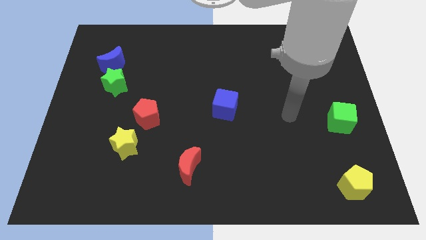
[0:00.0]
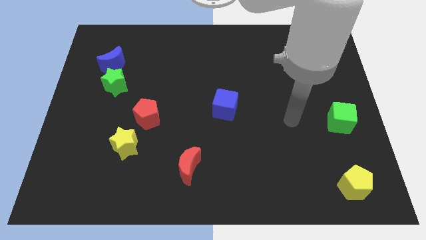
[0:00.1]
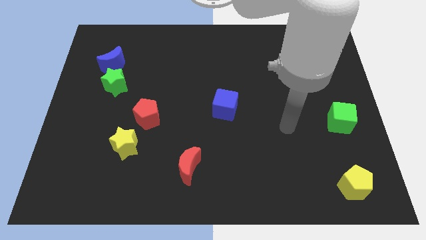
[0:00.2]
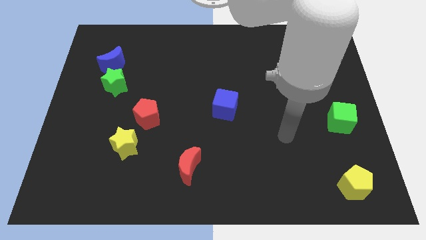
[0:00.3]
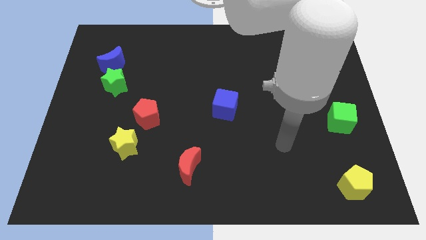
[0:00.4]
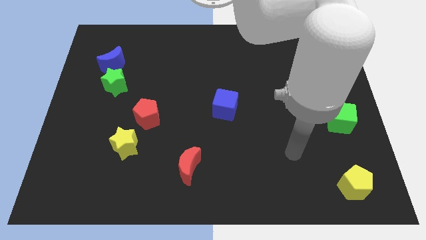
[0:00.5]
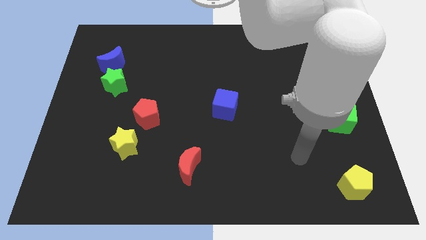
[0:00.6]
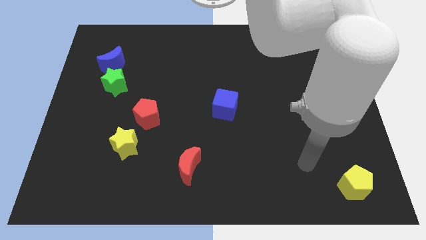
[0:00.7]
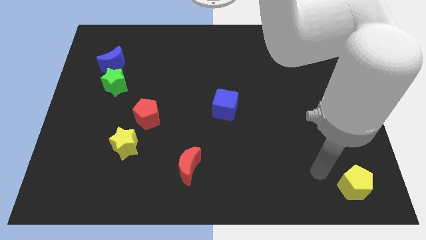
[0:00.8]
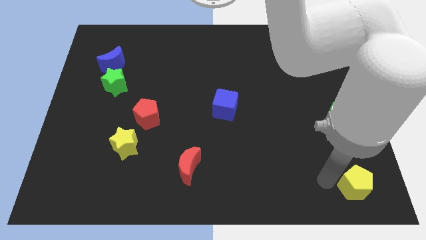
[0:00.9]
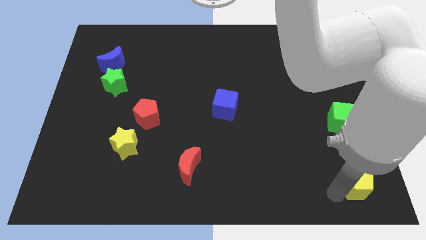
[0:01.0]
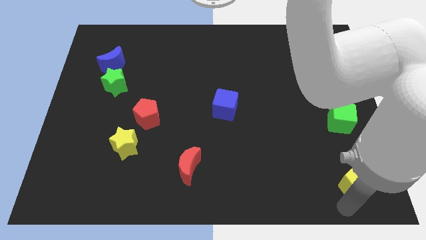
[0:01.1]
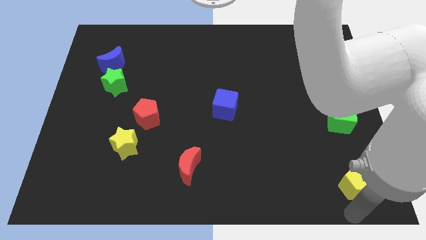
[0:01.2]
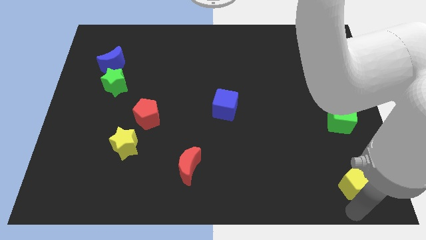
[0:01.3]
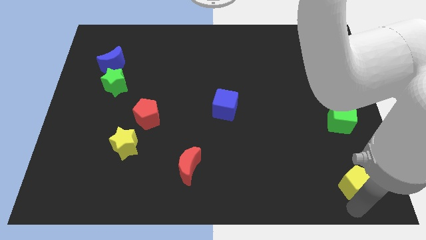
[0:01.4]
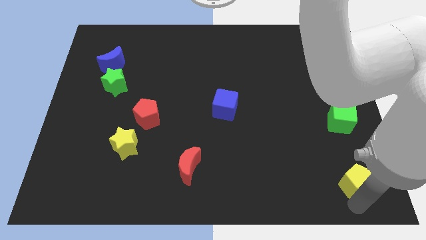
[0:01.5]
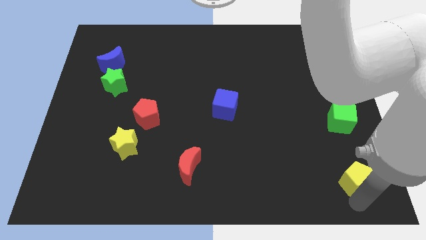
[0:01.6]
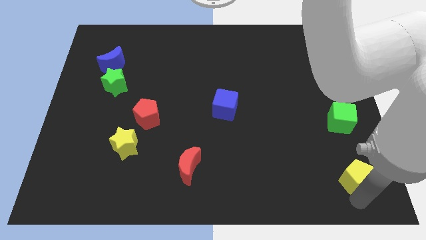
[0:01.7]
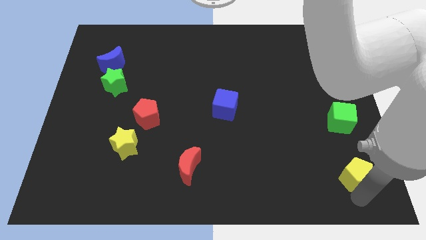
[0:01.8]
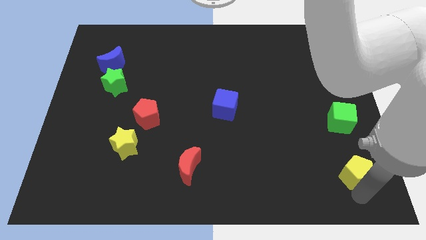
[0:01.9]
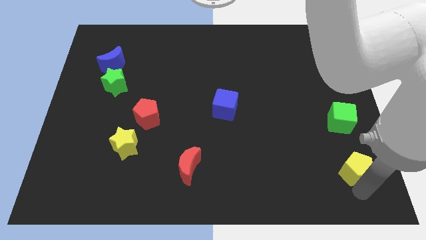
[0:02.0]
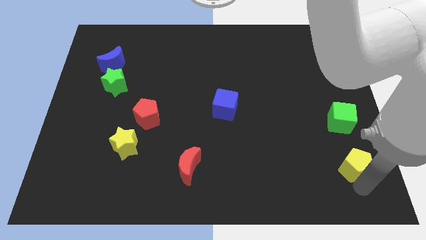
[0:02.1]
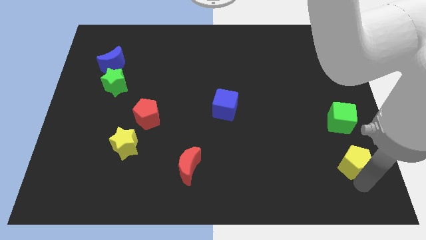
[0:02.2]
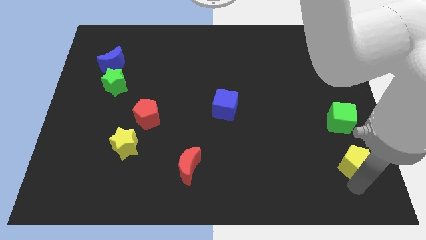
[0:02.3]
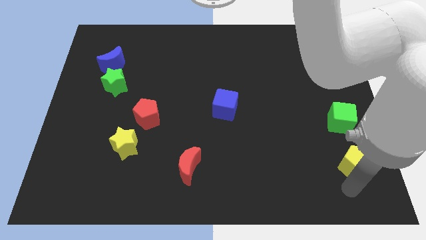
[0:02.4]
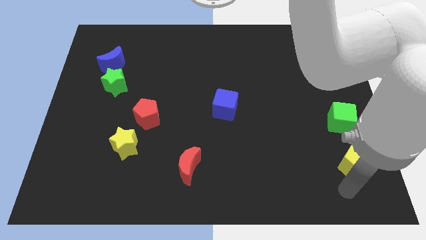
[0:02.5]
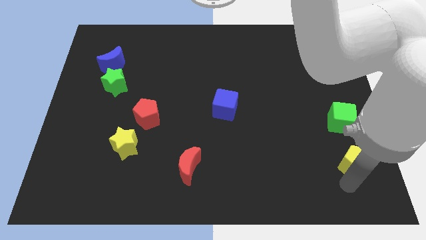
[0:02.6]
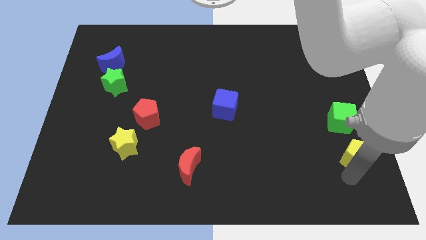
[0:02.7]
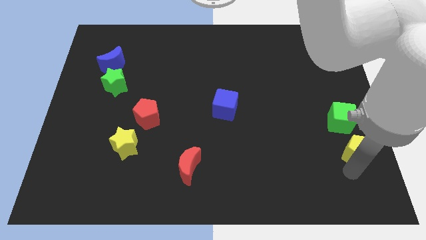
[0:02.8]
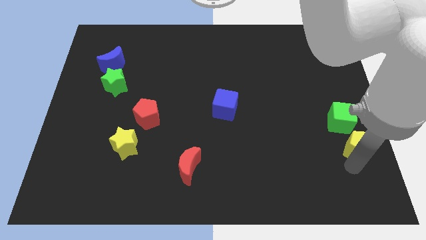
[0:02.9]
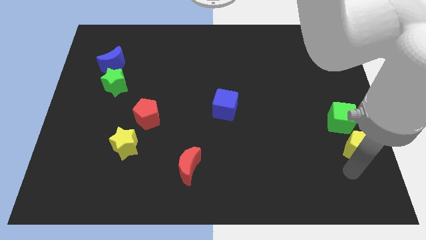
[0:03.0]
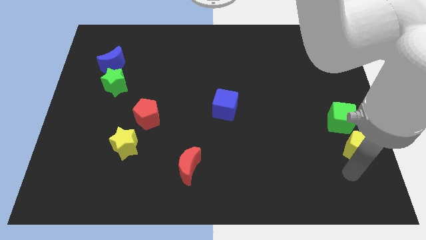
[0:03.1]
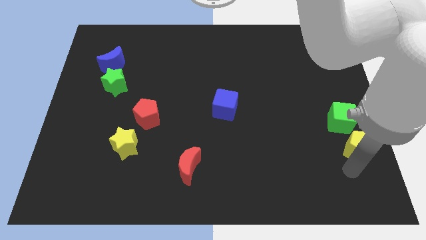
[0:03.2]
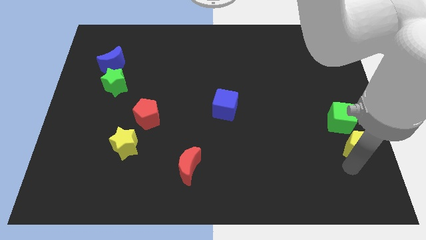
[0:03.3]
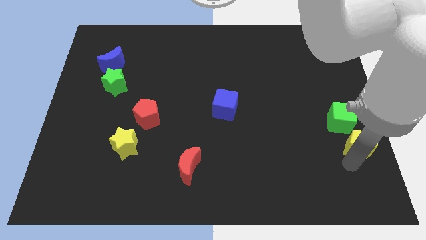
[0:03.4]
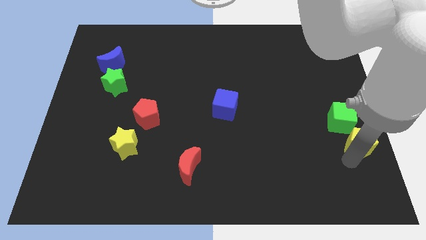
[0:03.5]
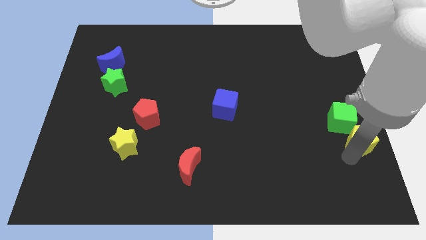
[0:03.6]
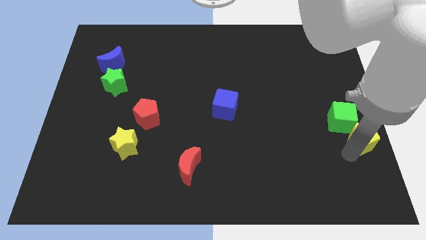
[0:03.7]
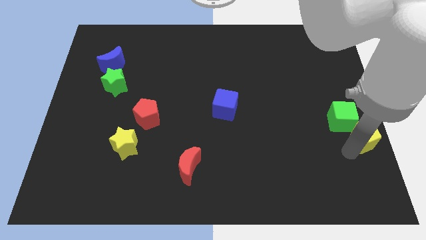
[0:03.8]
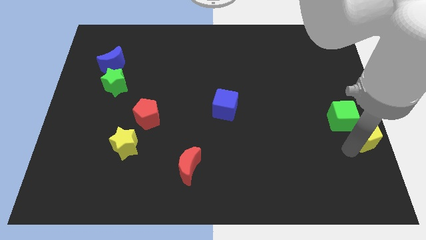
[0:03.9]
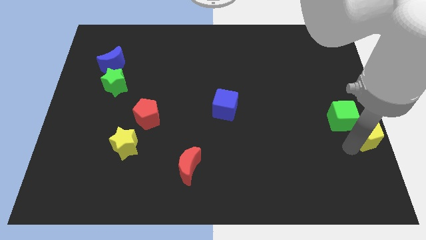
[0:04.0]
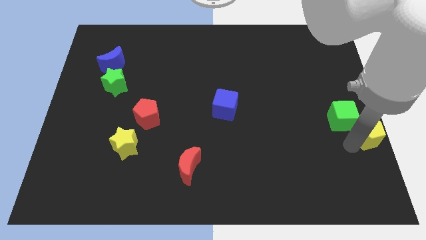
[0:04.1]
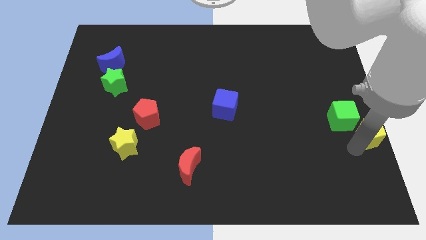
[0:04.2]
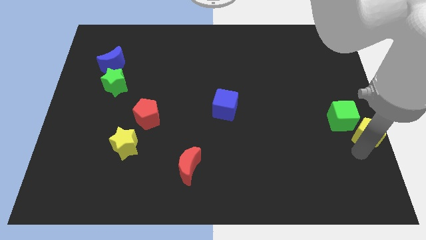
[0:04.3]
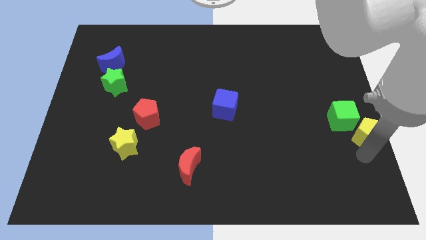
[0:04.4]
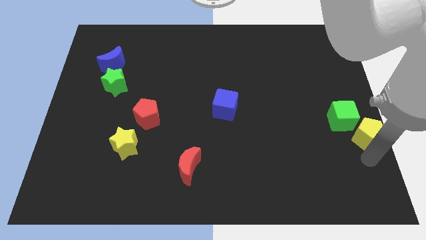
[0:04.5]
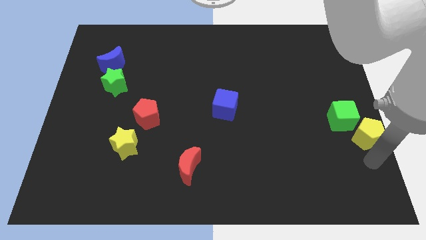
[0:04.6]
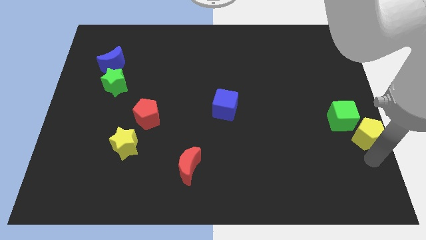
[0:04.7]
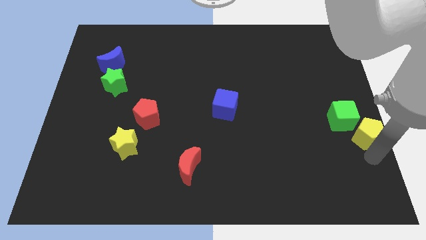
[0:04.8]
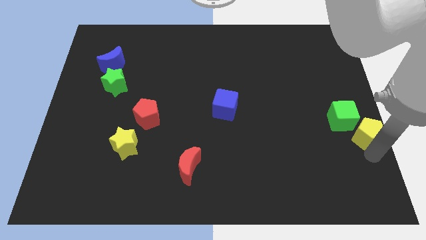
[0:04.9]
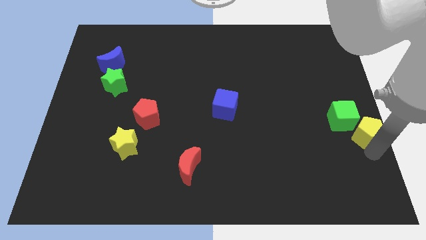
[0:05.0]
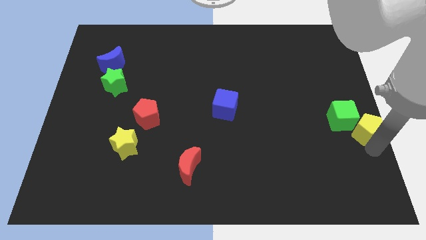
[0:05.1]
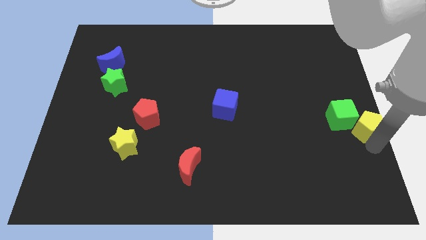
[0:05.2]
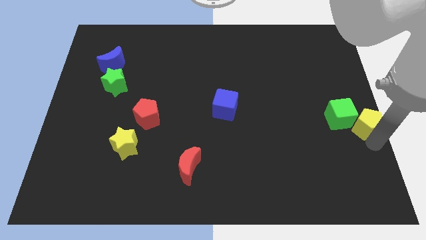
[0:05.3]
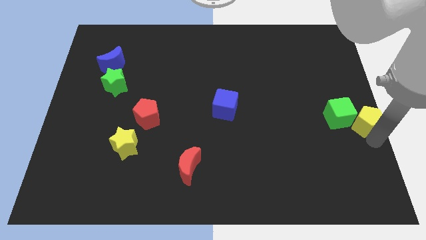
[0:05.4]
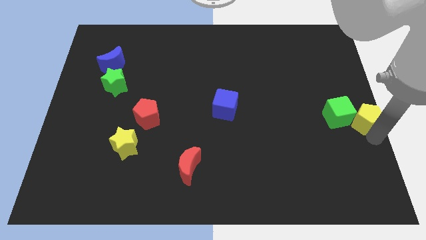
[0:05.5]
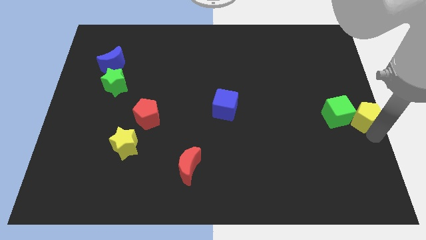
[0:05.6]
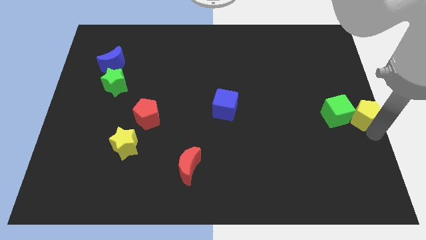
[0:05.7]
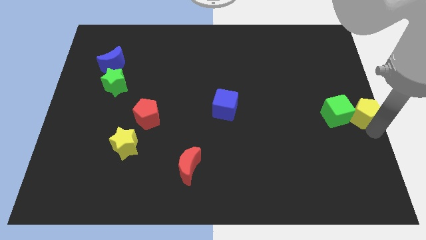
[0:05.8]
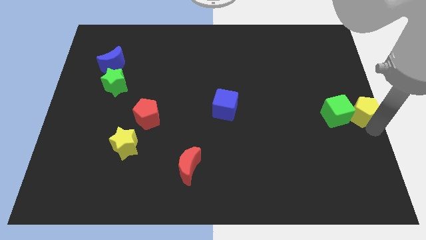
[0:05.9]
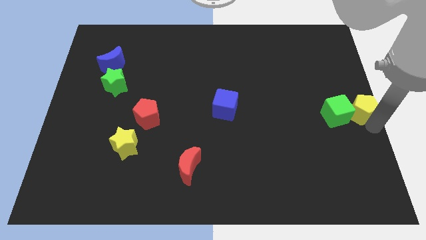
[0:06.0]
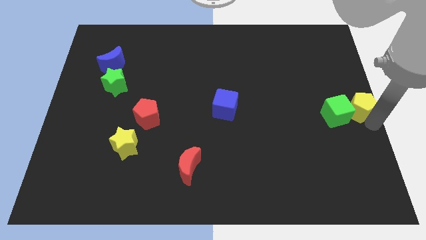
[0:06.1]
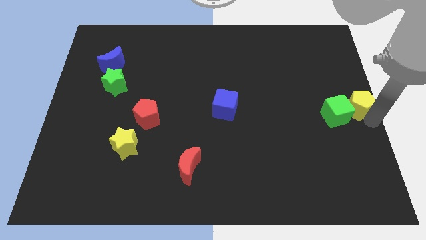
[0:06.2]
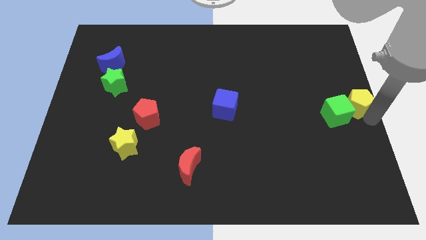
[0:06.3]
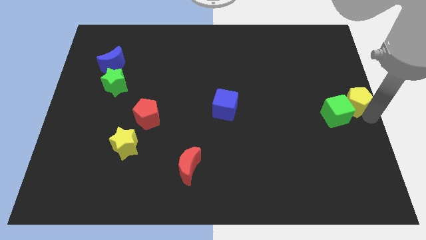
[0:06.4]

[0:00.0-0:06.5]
push the yellow pentagon up

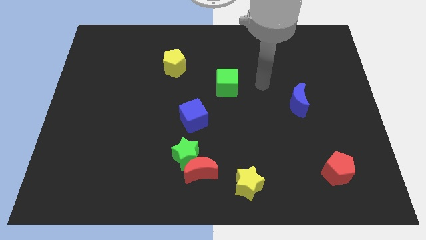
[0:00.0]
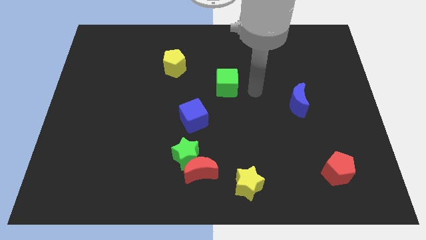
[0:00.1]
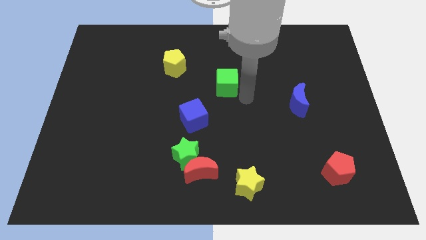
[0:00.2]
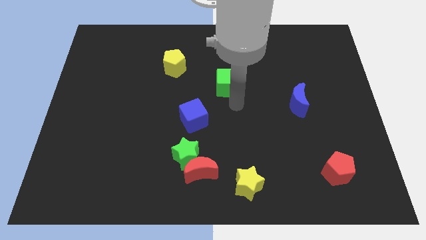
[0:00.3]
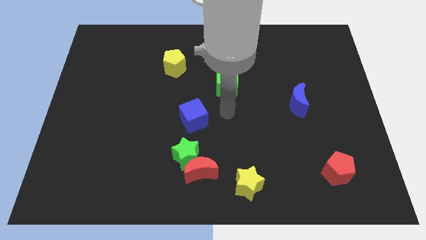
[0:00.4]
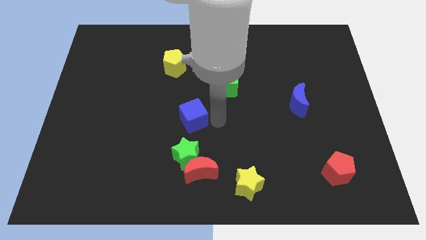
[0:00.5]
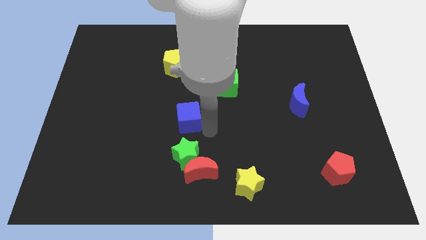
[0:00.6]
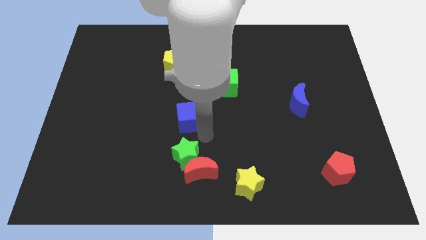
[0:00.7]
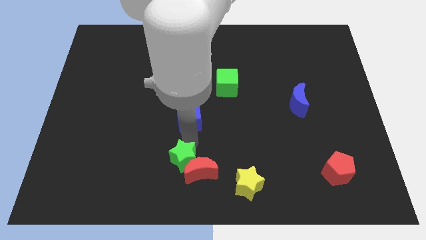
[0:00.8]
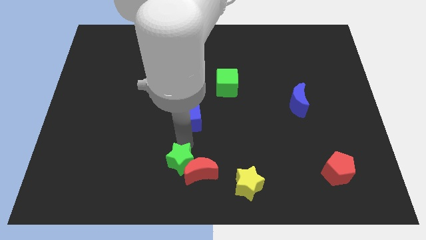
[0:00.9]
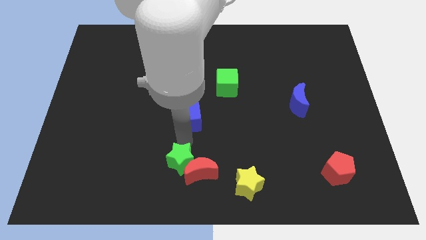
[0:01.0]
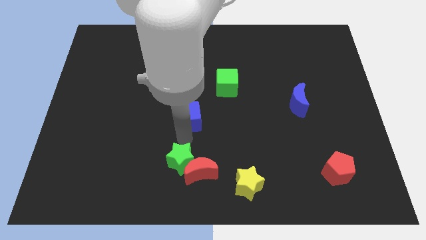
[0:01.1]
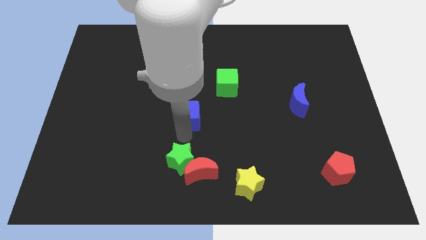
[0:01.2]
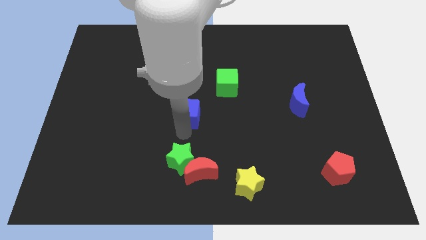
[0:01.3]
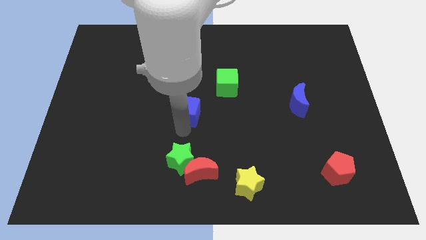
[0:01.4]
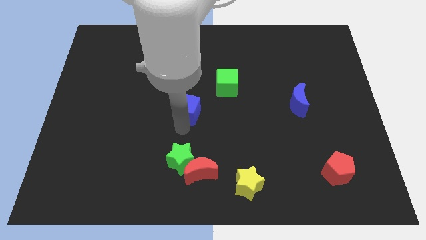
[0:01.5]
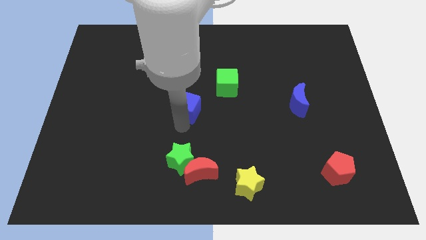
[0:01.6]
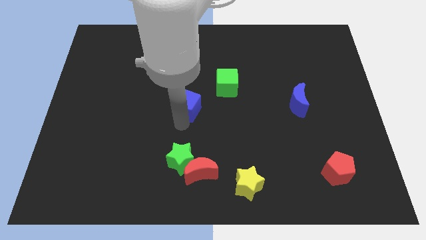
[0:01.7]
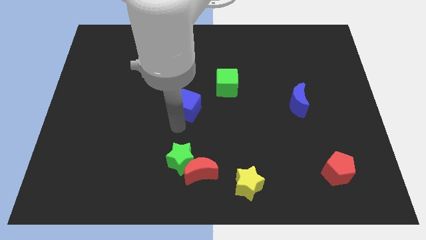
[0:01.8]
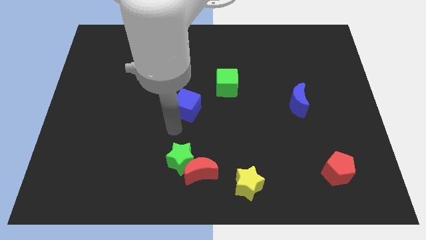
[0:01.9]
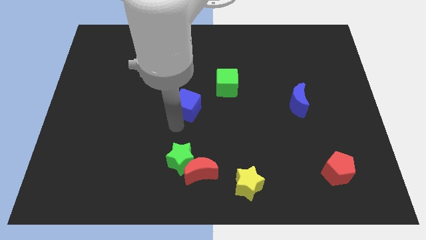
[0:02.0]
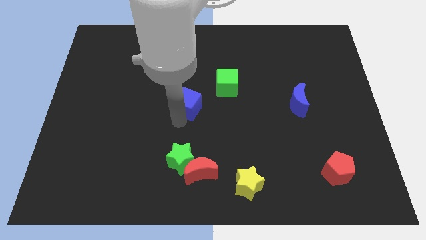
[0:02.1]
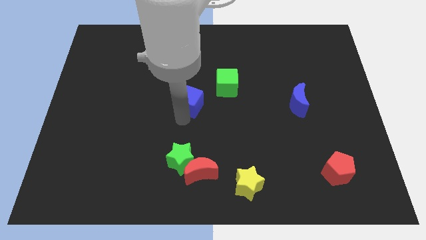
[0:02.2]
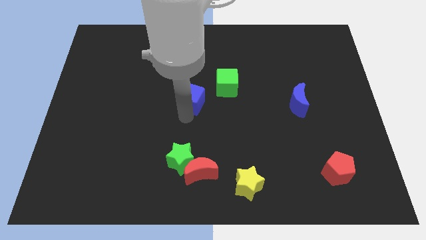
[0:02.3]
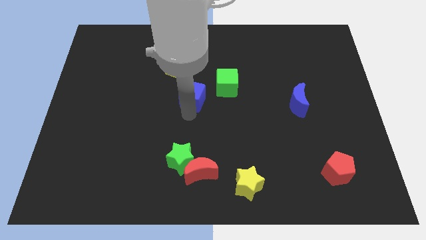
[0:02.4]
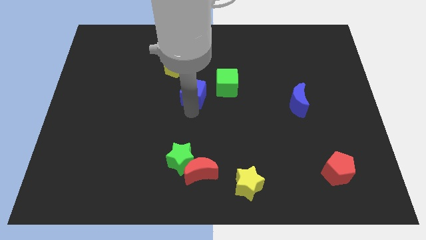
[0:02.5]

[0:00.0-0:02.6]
slide the blue cube upwards slightly
